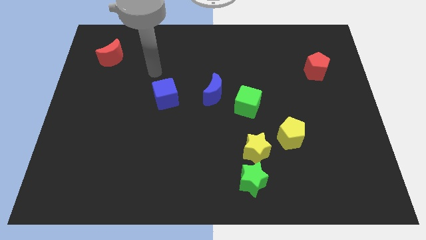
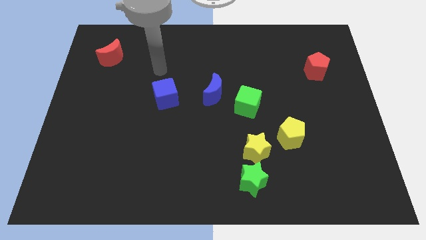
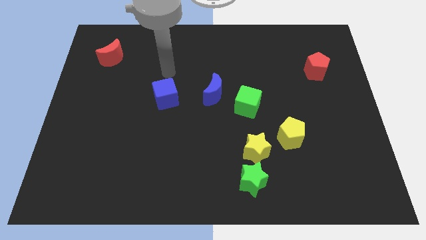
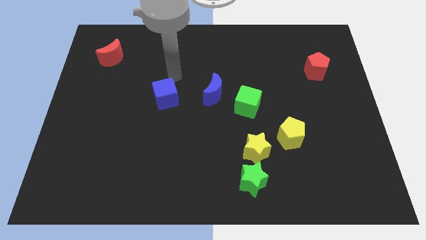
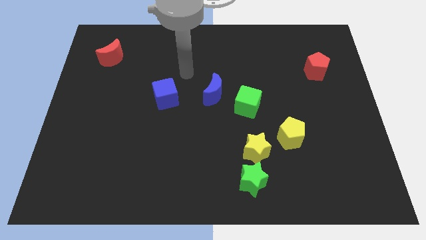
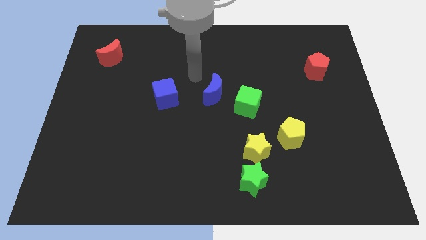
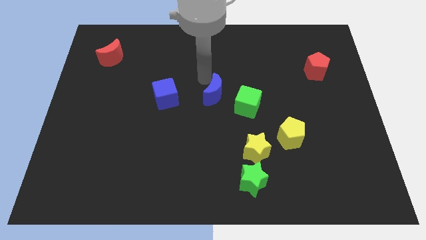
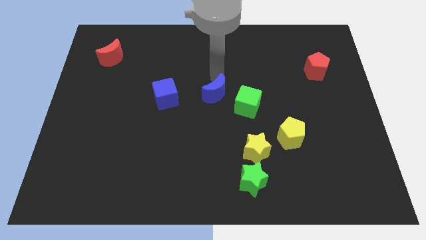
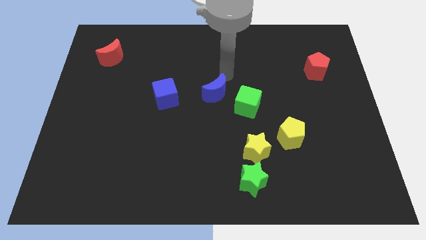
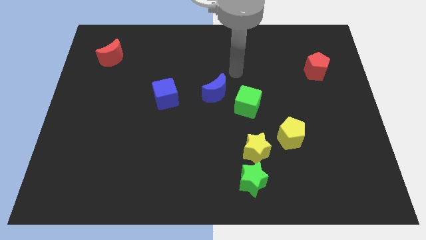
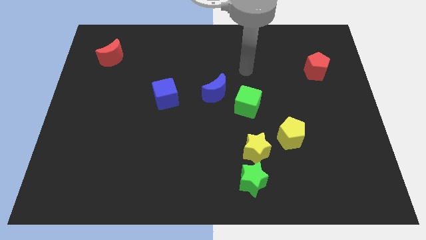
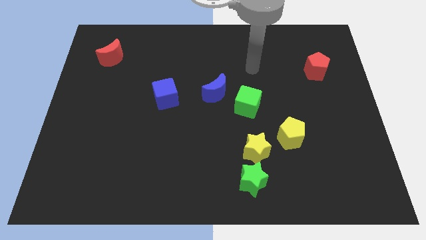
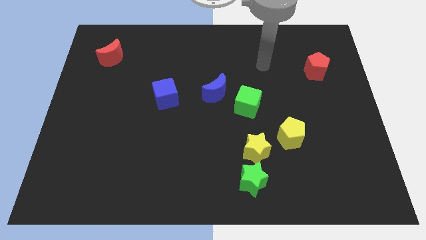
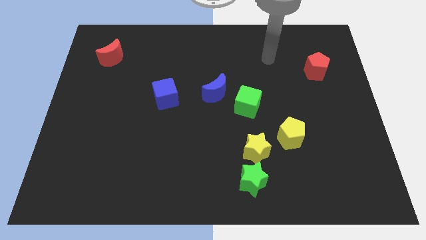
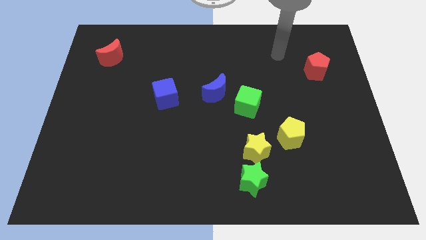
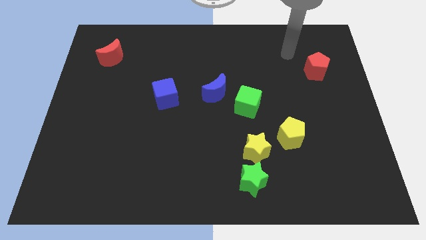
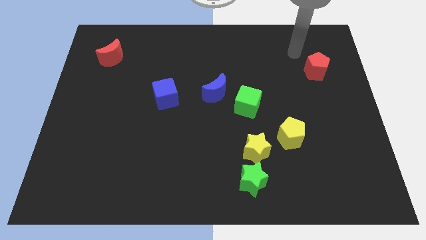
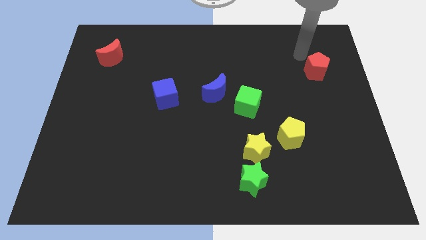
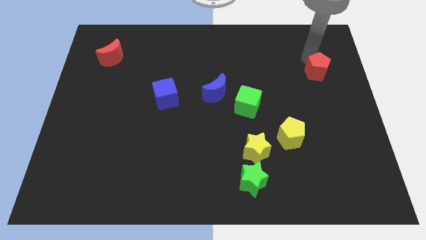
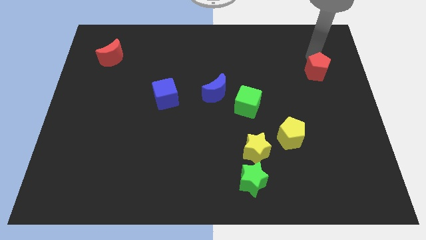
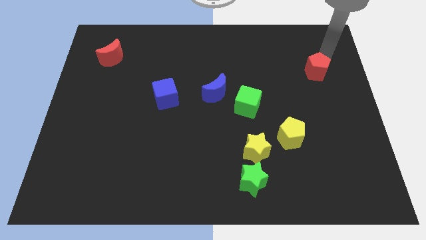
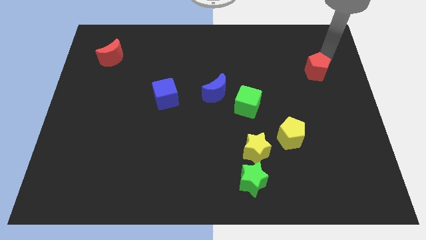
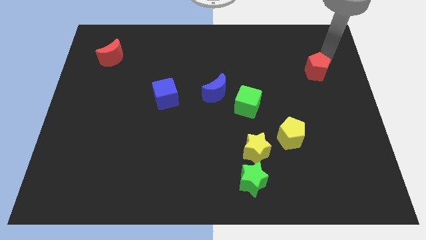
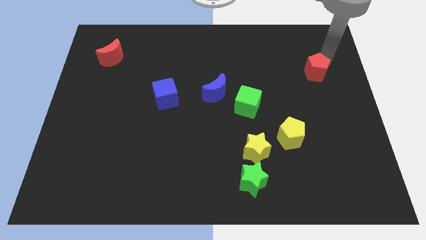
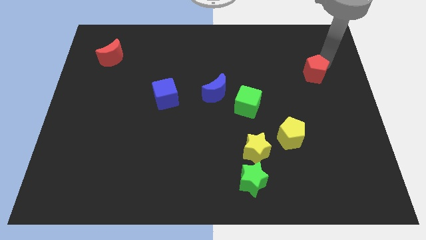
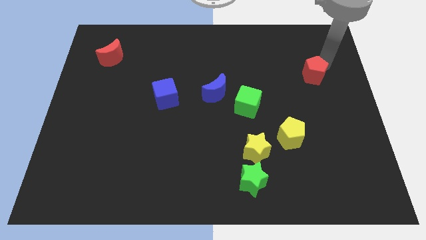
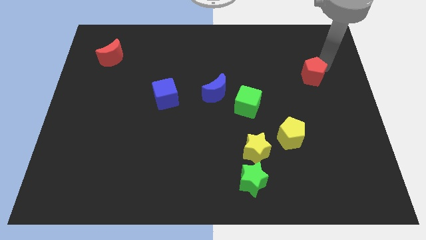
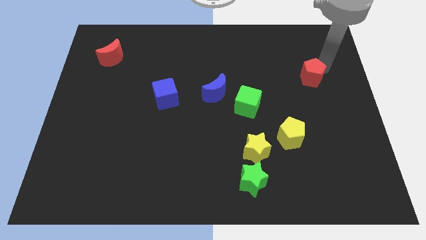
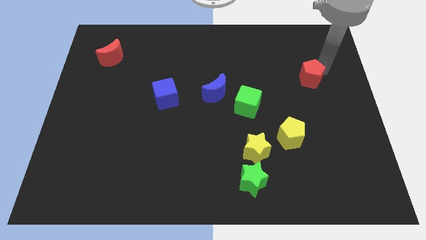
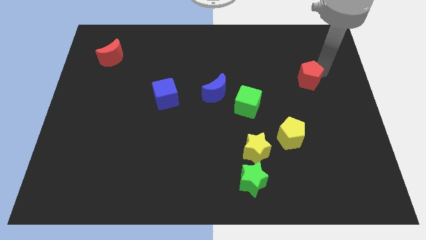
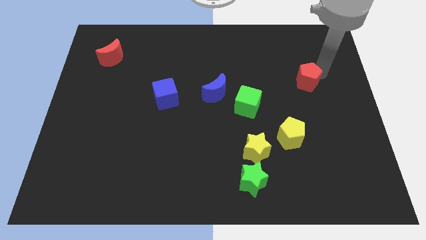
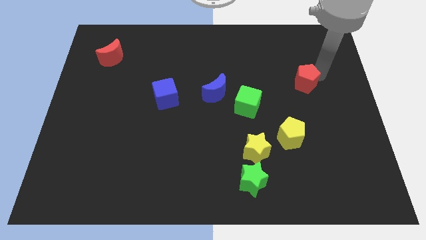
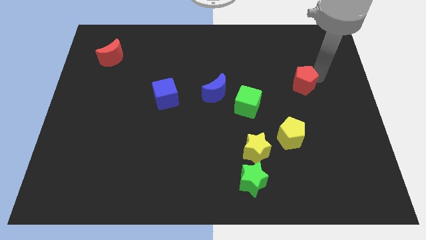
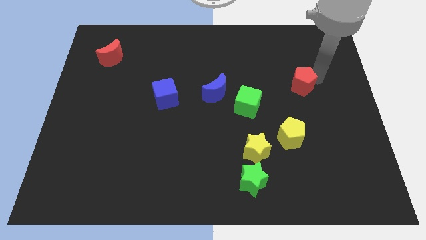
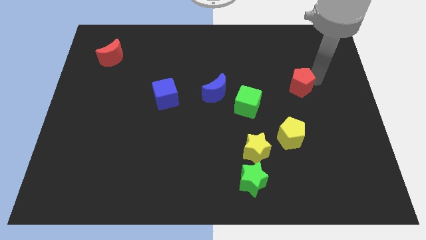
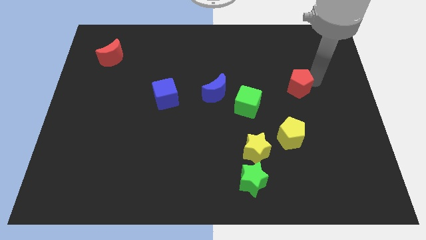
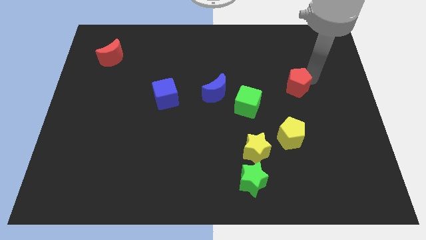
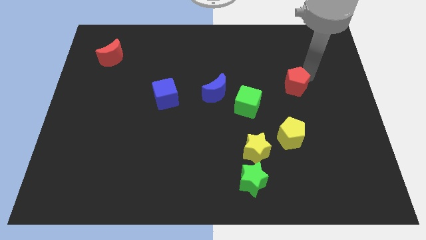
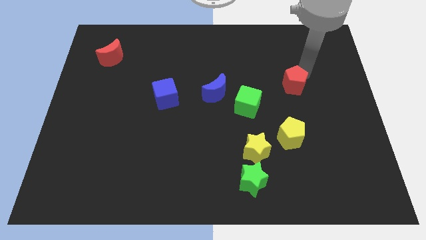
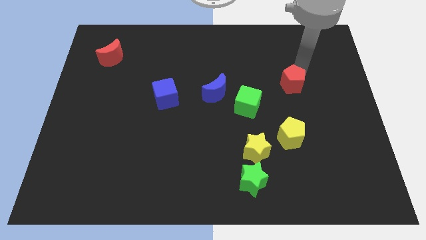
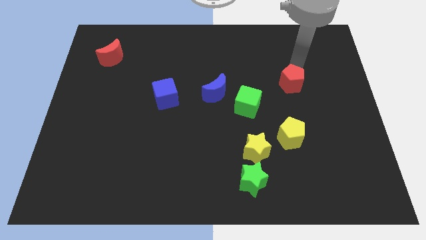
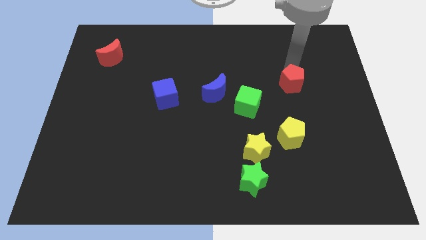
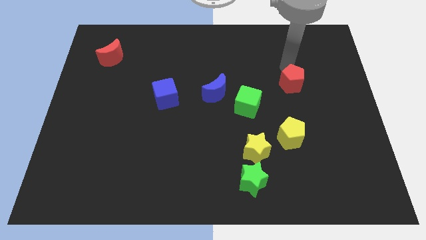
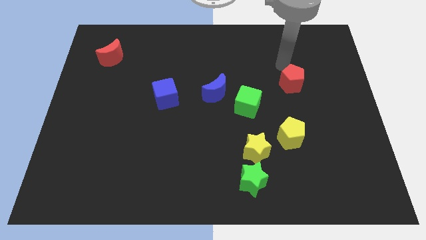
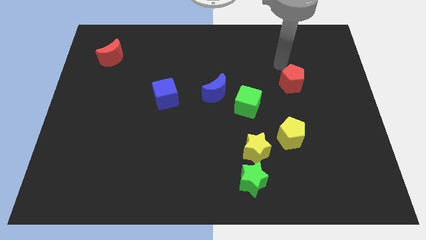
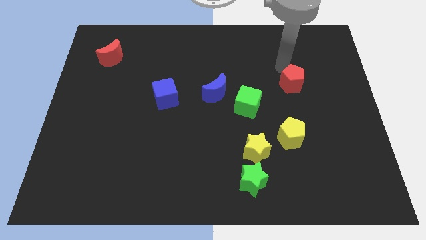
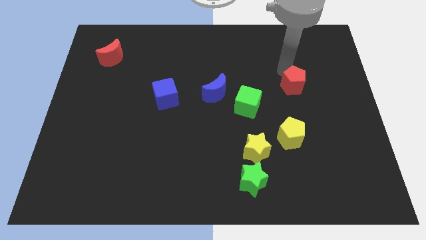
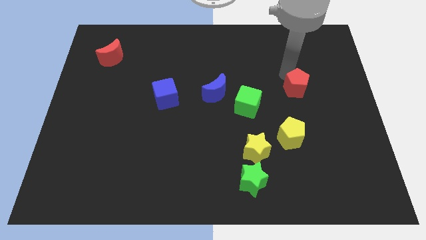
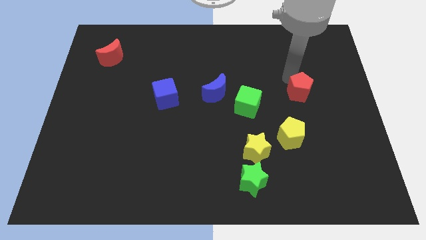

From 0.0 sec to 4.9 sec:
put the red pentagon to the right side of the green cube

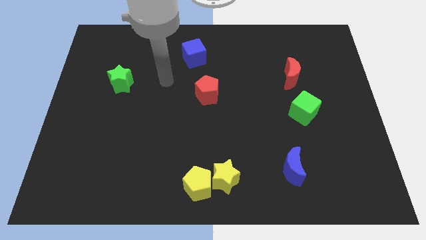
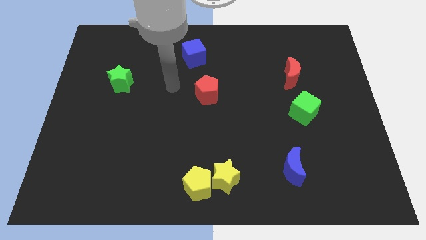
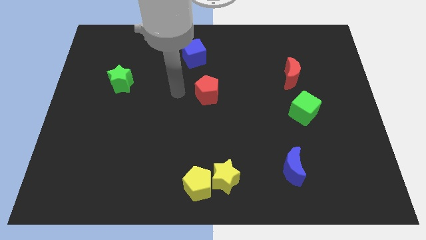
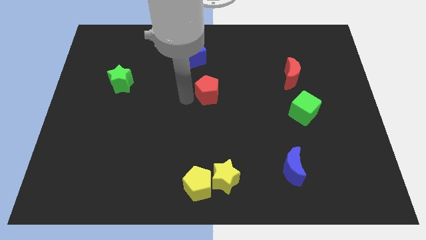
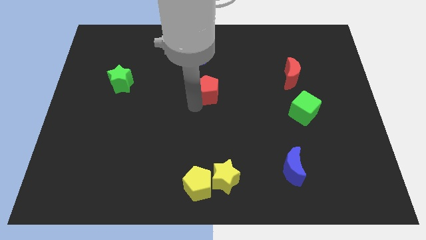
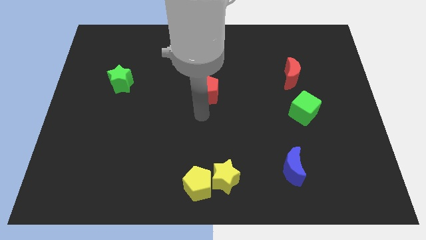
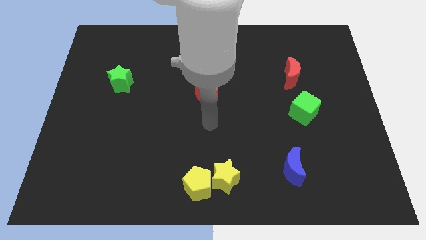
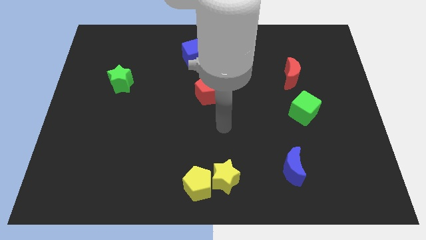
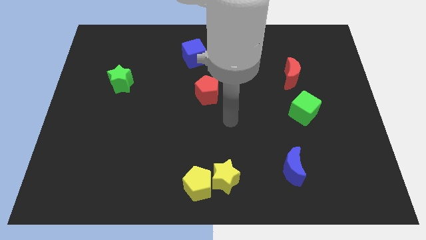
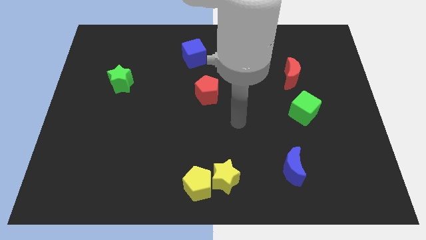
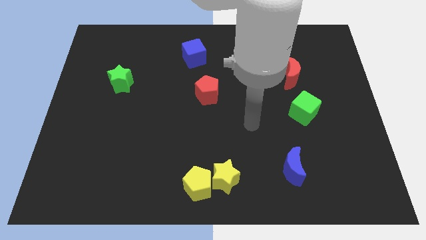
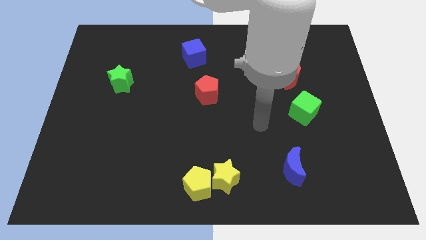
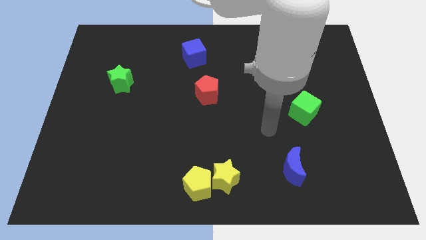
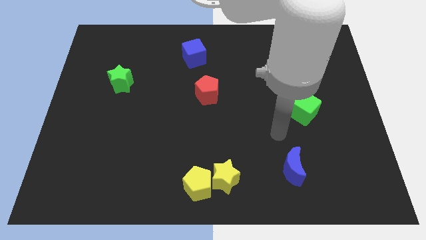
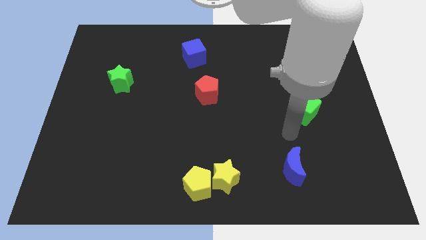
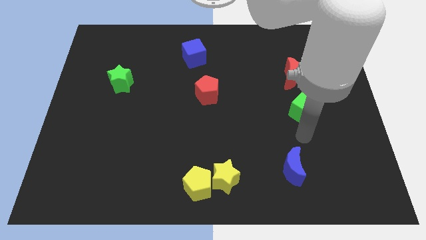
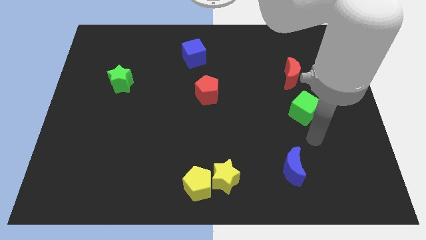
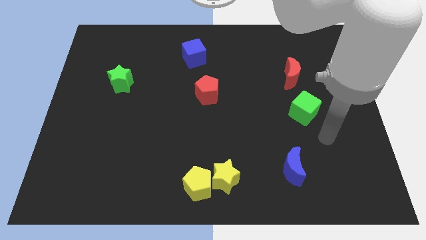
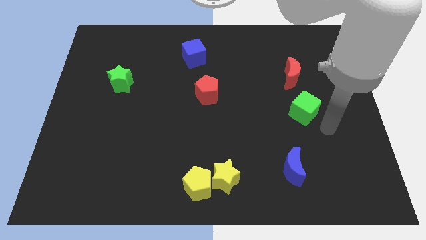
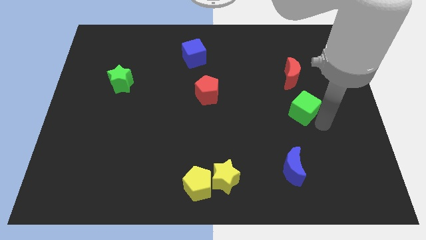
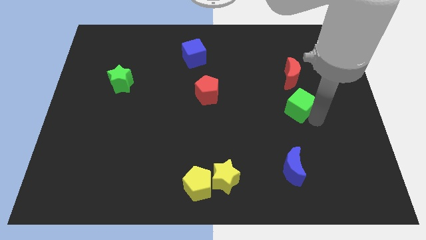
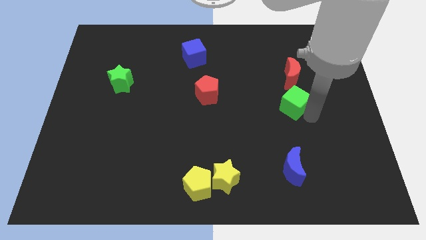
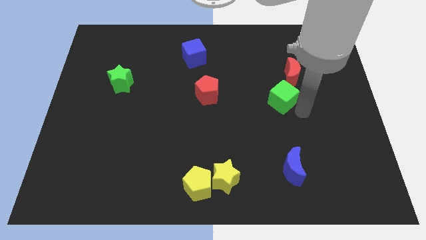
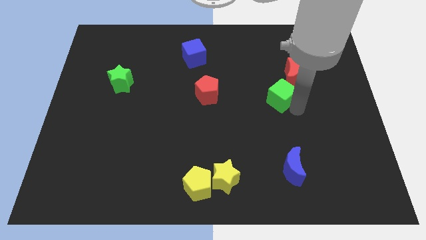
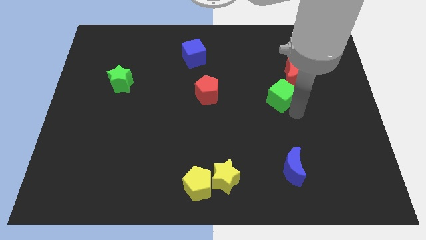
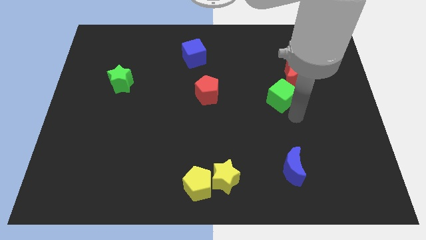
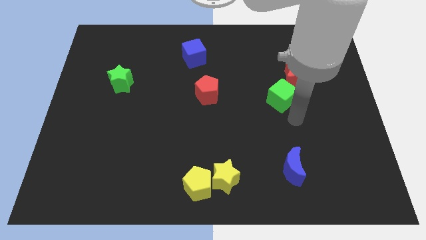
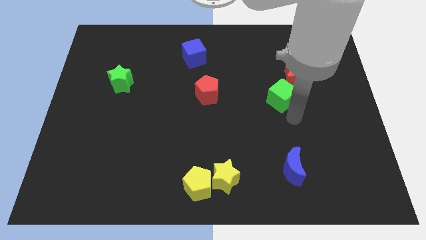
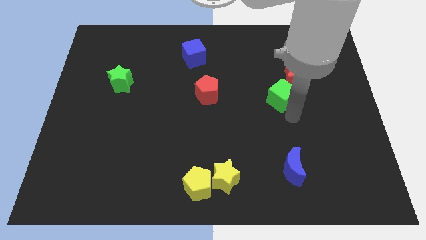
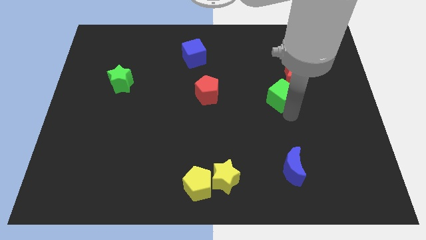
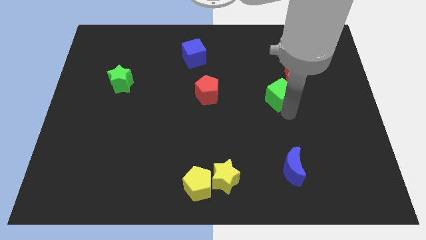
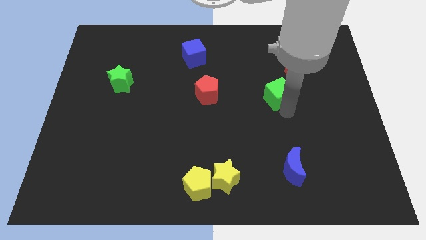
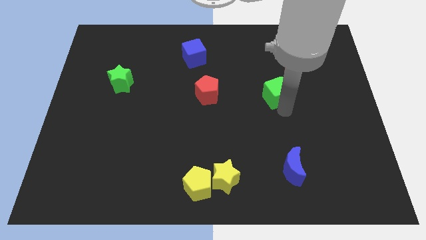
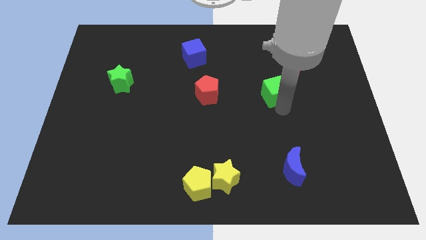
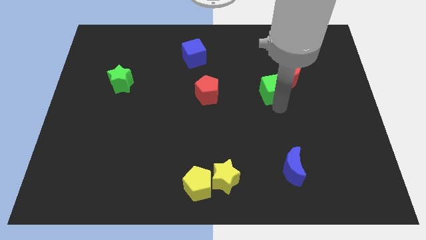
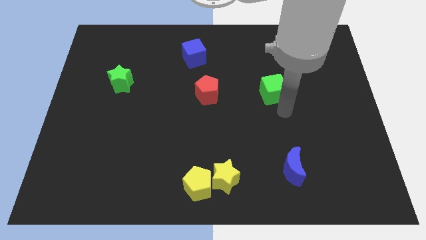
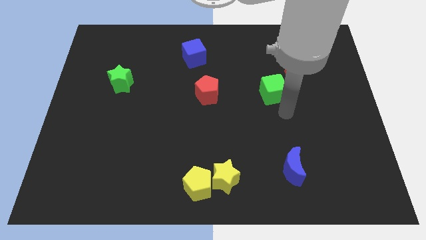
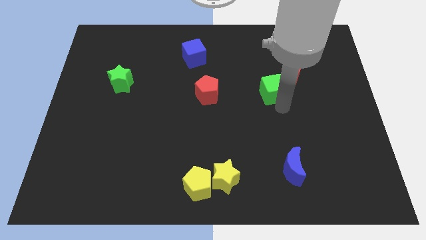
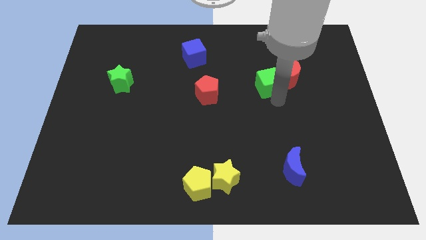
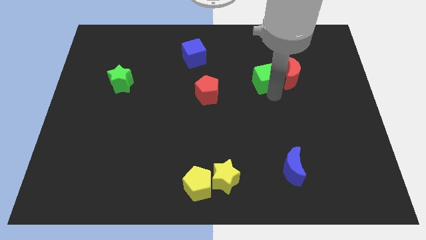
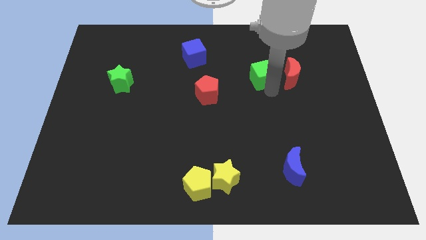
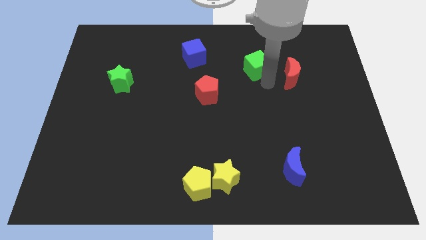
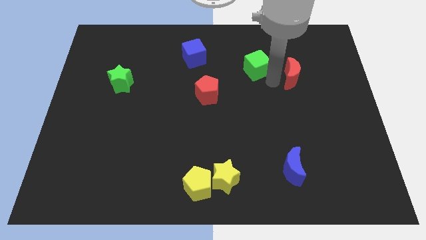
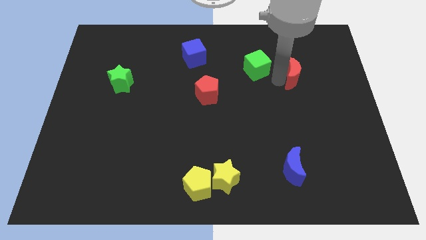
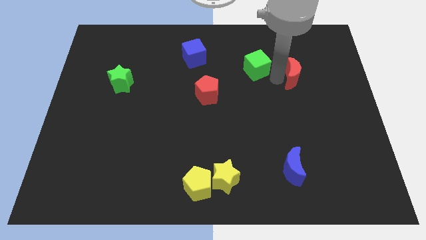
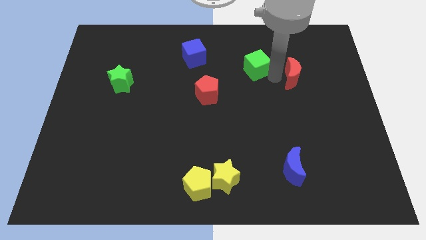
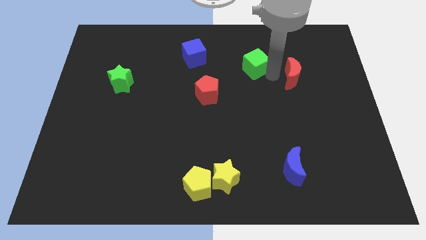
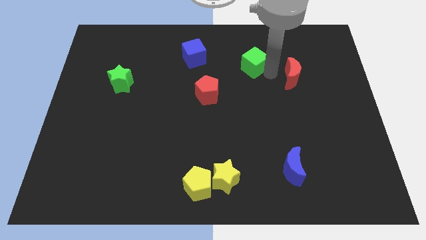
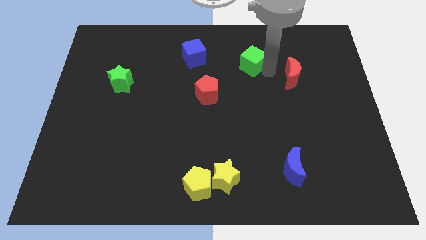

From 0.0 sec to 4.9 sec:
put the green cube to the right of the blue cube
